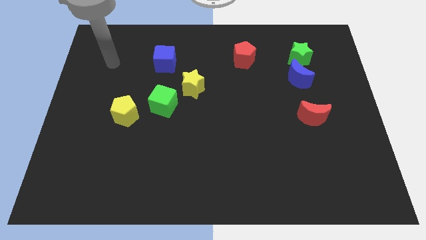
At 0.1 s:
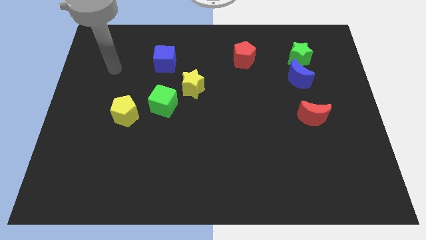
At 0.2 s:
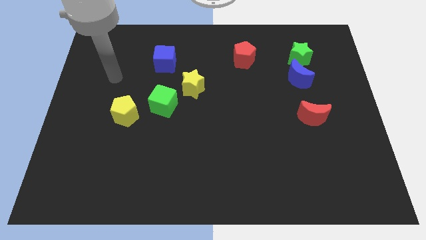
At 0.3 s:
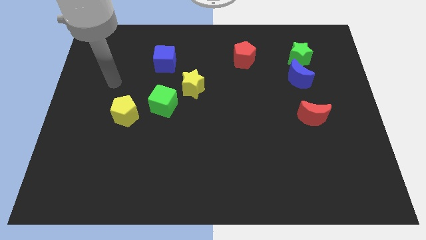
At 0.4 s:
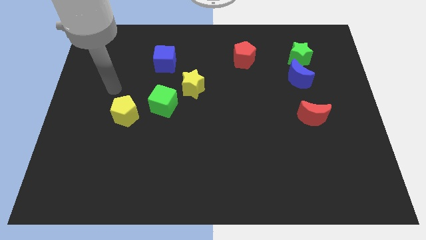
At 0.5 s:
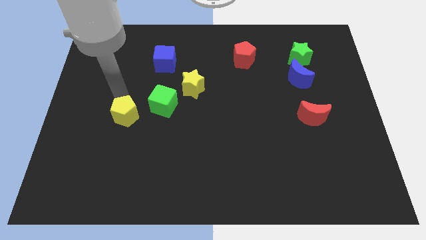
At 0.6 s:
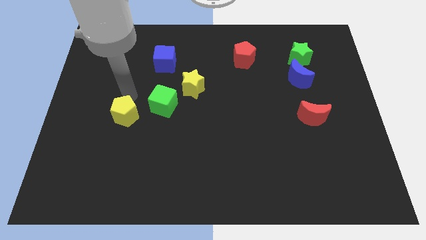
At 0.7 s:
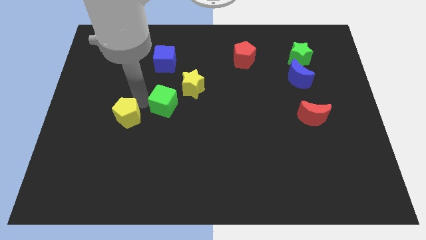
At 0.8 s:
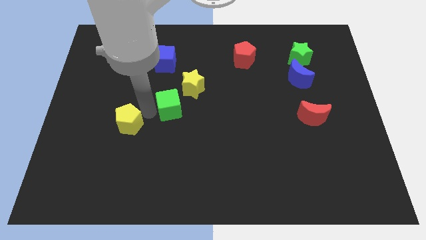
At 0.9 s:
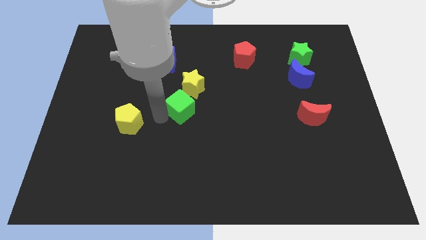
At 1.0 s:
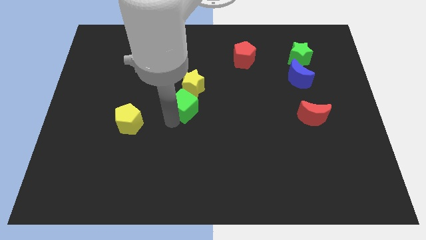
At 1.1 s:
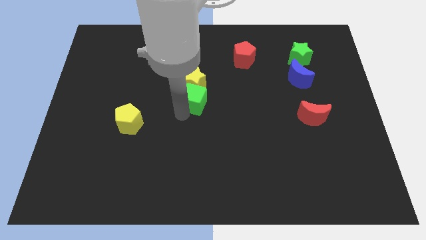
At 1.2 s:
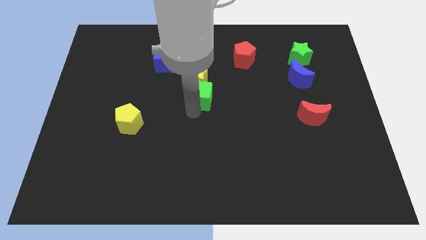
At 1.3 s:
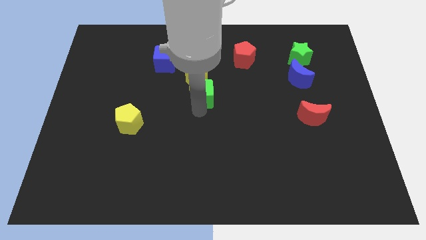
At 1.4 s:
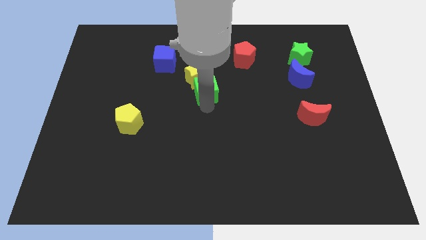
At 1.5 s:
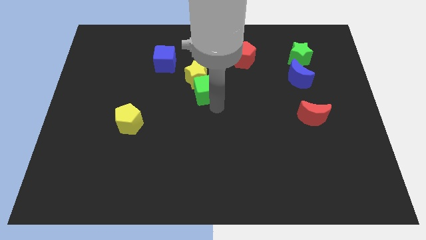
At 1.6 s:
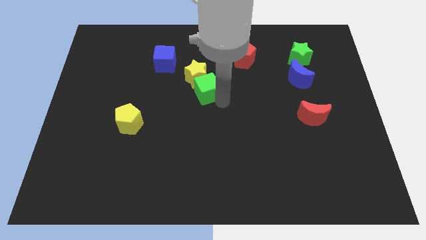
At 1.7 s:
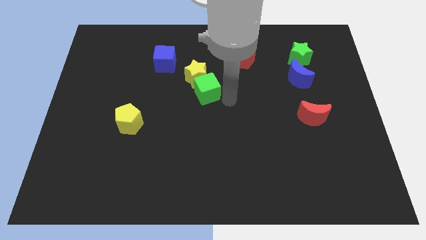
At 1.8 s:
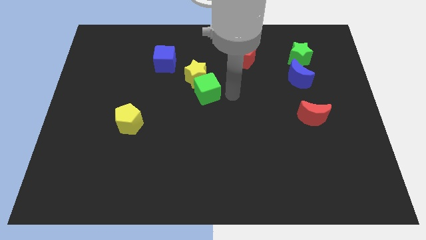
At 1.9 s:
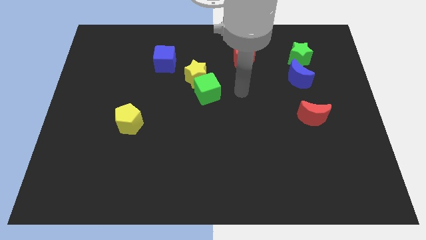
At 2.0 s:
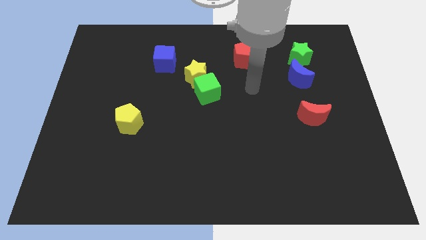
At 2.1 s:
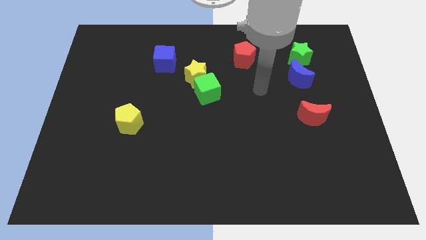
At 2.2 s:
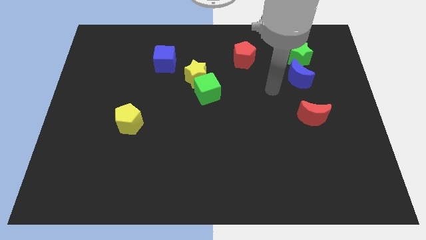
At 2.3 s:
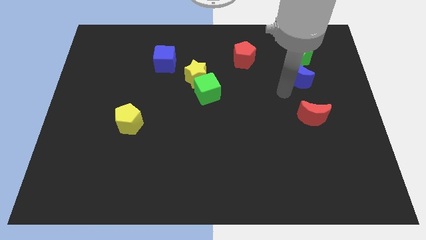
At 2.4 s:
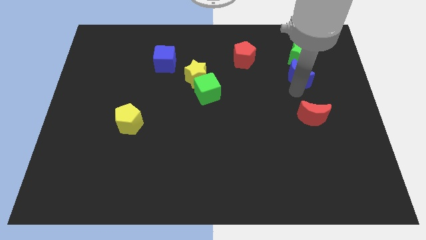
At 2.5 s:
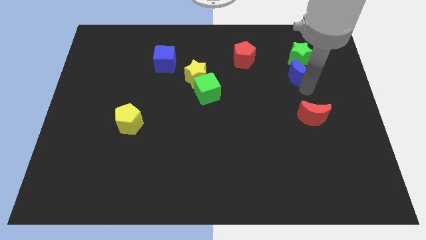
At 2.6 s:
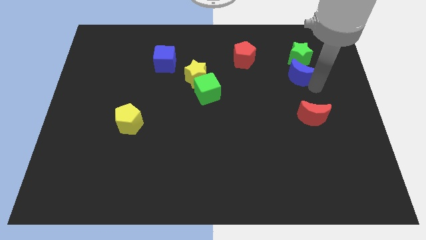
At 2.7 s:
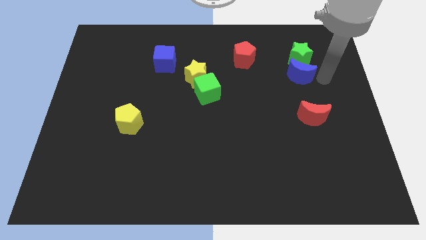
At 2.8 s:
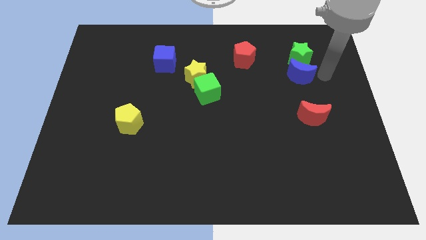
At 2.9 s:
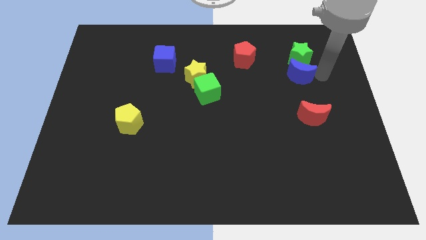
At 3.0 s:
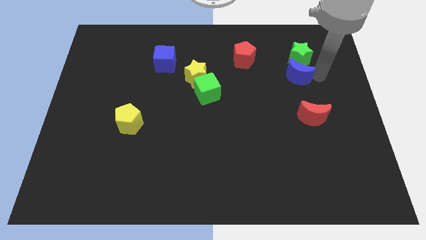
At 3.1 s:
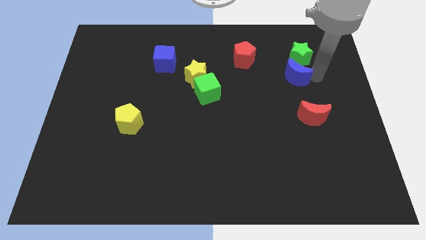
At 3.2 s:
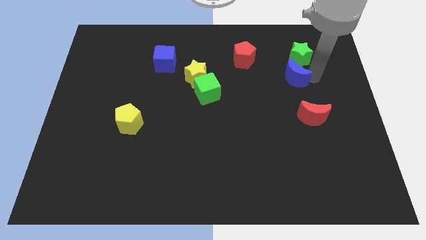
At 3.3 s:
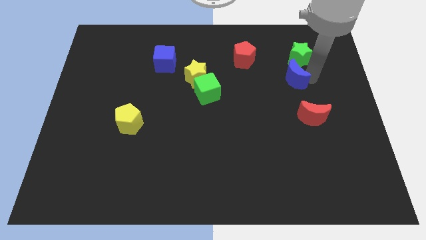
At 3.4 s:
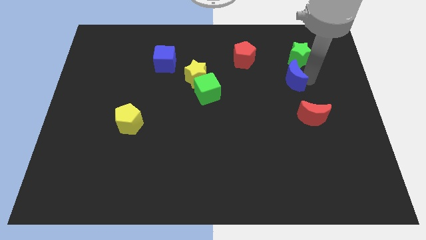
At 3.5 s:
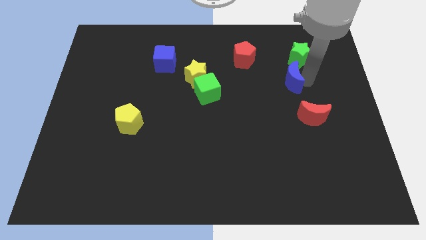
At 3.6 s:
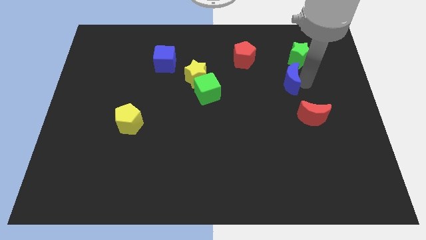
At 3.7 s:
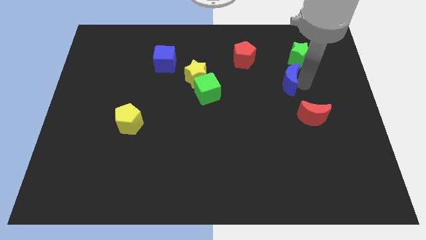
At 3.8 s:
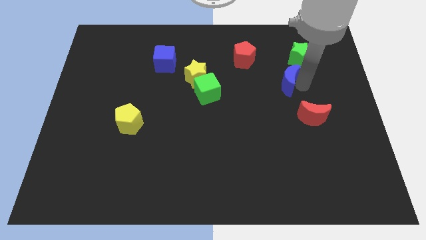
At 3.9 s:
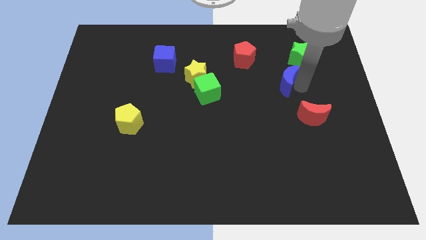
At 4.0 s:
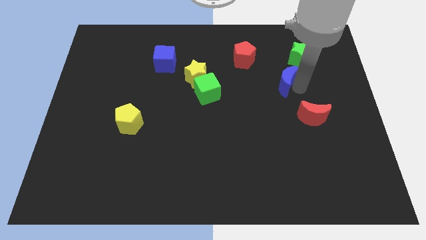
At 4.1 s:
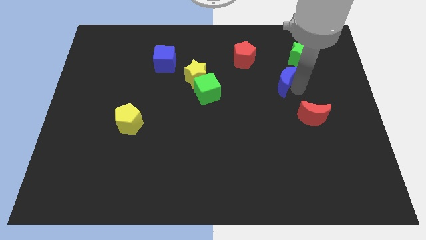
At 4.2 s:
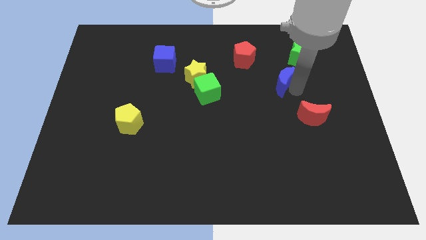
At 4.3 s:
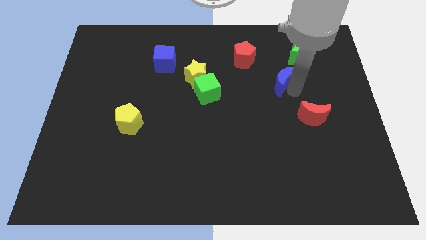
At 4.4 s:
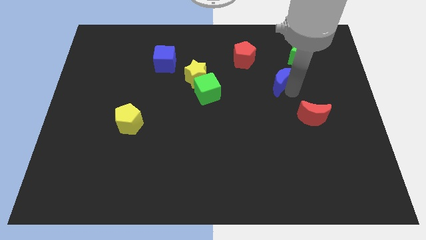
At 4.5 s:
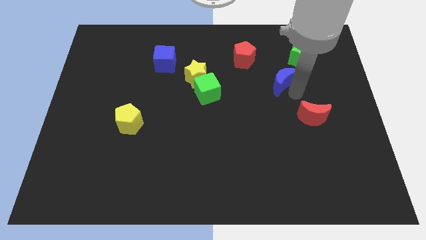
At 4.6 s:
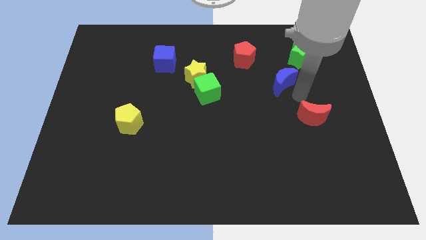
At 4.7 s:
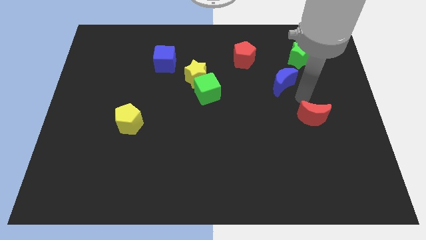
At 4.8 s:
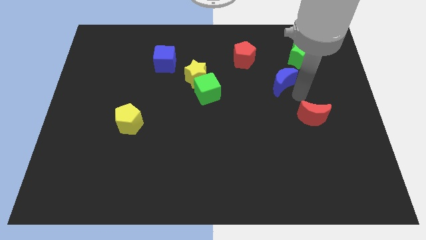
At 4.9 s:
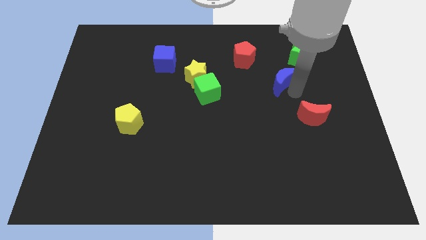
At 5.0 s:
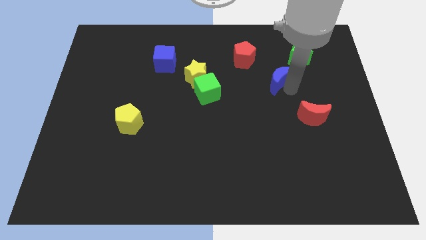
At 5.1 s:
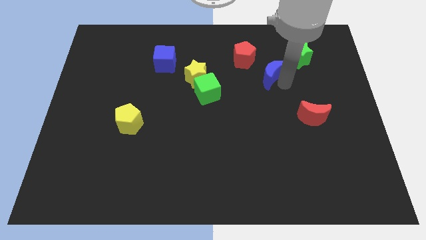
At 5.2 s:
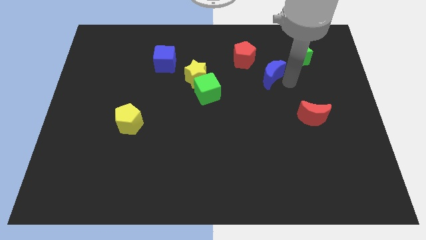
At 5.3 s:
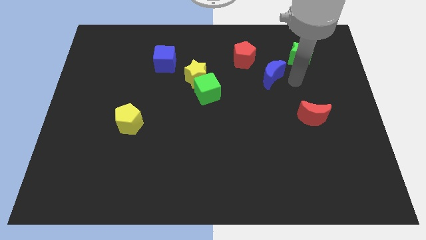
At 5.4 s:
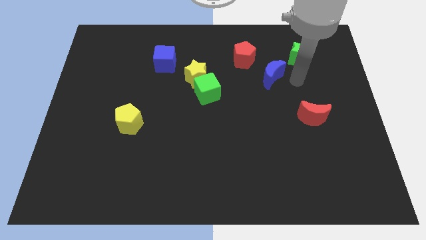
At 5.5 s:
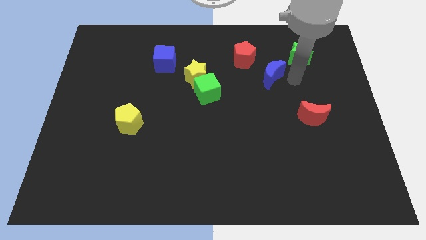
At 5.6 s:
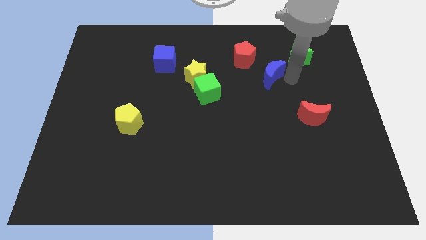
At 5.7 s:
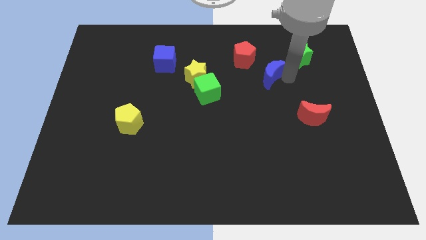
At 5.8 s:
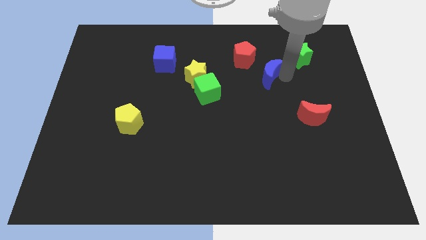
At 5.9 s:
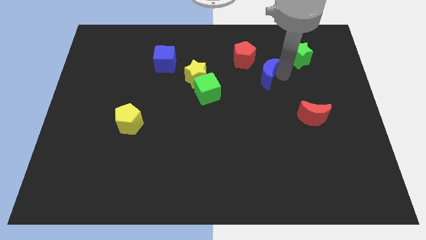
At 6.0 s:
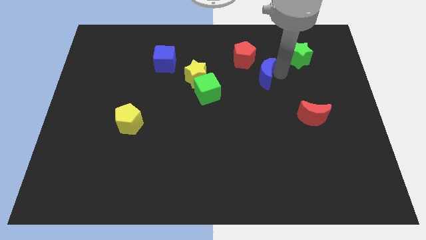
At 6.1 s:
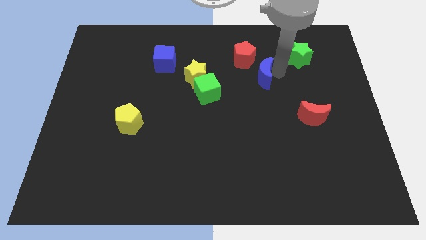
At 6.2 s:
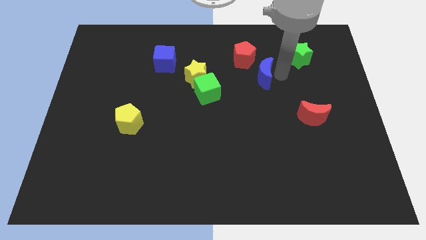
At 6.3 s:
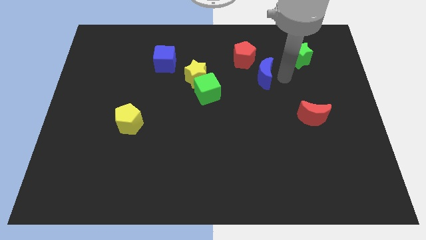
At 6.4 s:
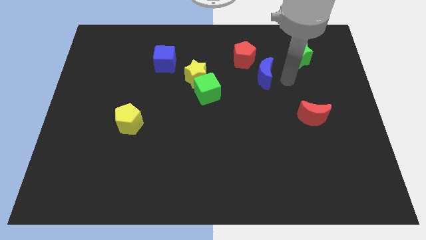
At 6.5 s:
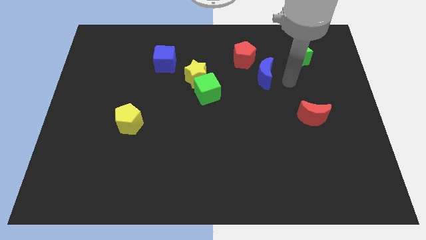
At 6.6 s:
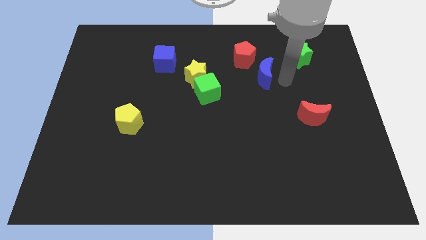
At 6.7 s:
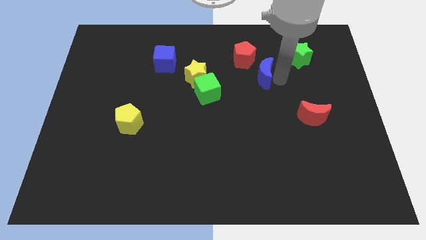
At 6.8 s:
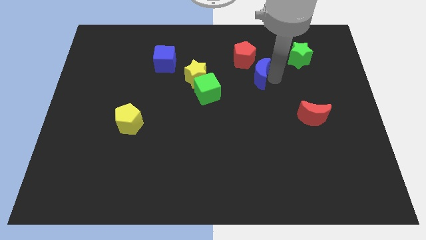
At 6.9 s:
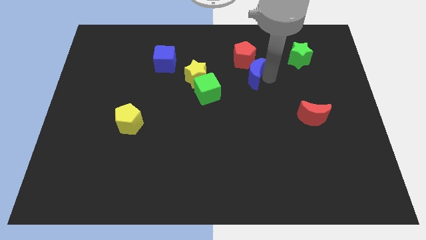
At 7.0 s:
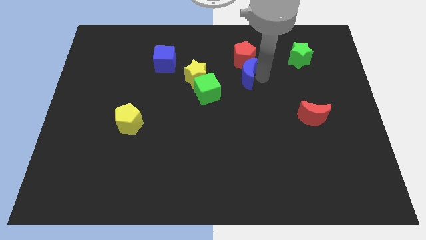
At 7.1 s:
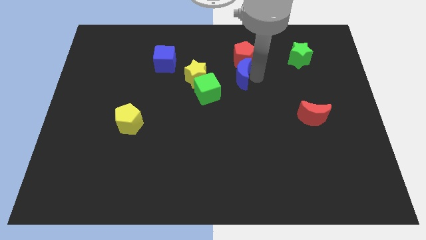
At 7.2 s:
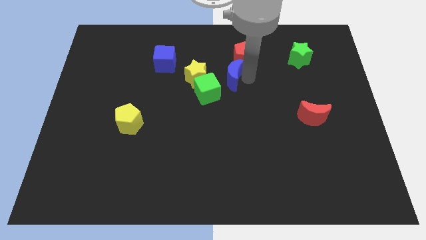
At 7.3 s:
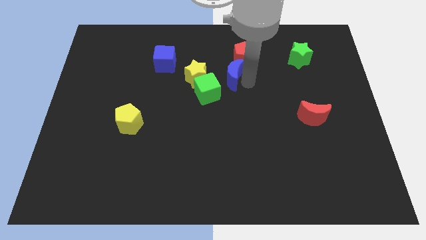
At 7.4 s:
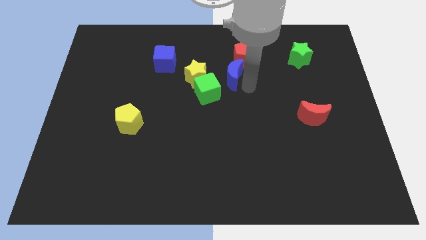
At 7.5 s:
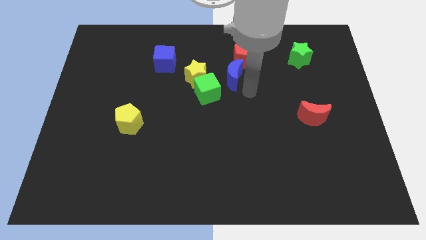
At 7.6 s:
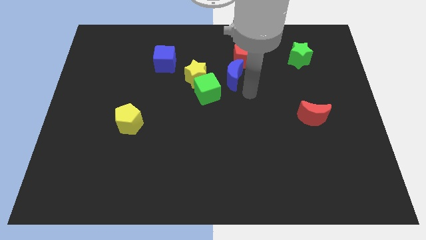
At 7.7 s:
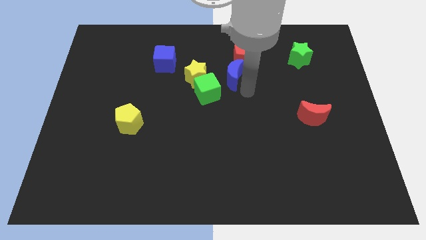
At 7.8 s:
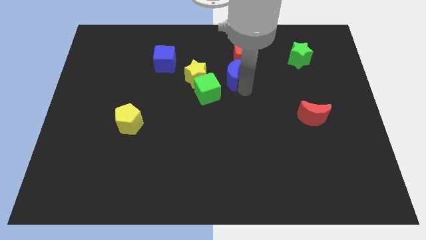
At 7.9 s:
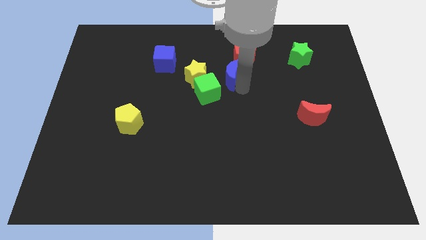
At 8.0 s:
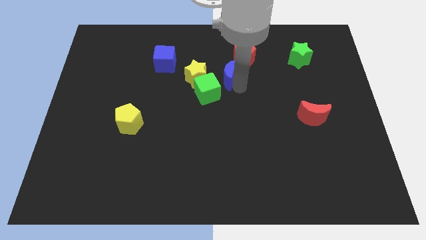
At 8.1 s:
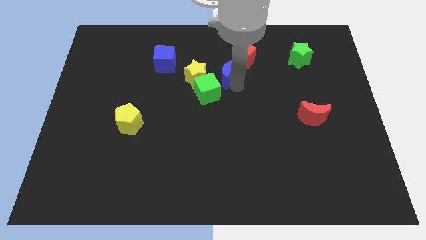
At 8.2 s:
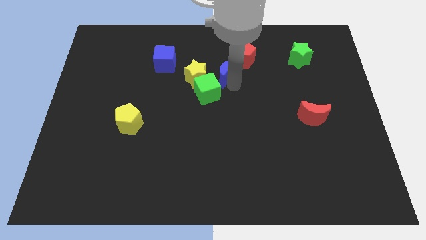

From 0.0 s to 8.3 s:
put the blue moon to the top right of the yellow star

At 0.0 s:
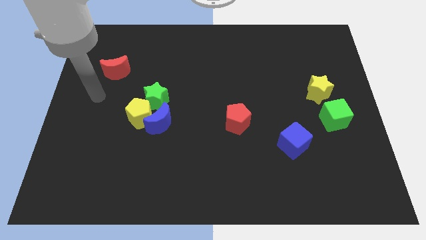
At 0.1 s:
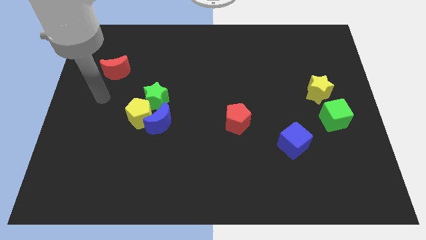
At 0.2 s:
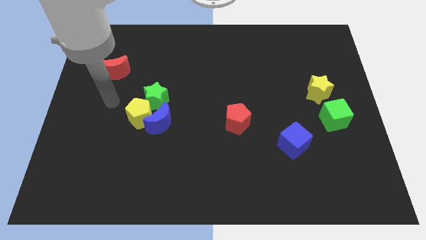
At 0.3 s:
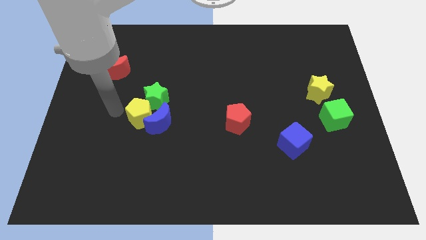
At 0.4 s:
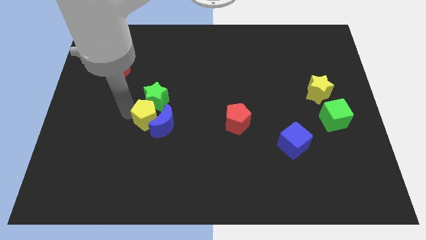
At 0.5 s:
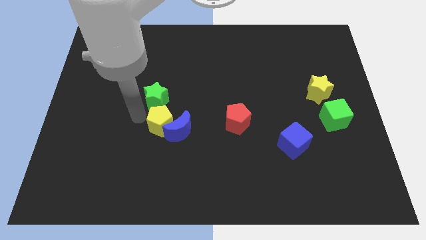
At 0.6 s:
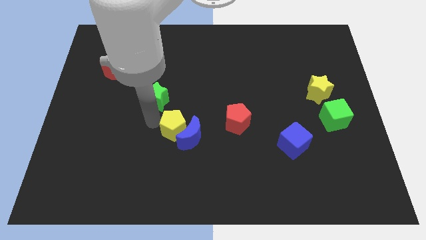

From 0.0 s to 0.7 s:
push the blue moon diagonally down and to the left of the red pentagon
